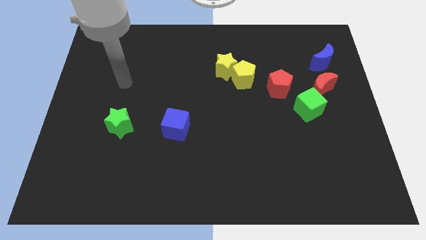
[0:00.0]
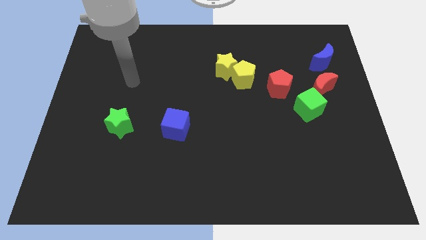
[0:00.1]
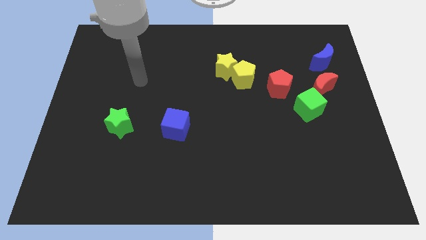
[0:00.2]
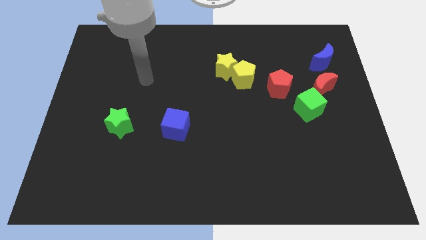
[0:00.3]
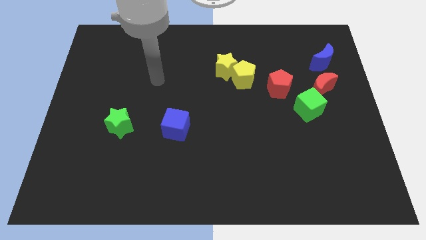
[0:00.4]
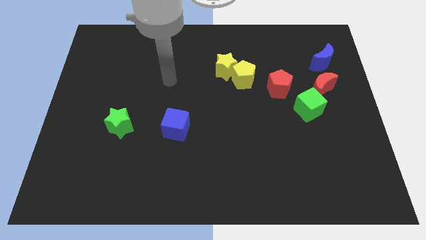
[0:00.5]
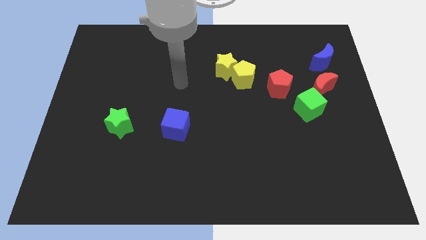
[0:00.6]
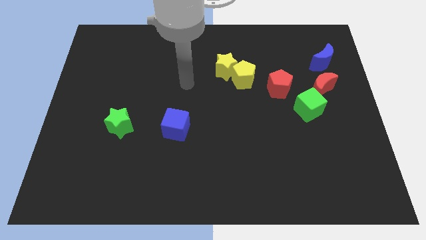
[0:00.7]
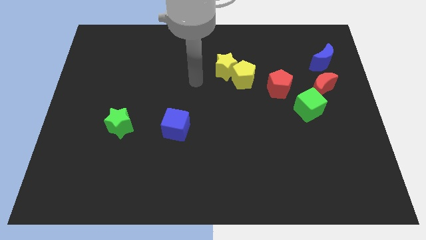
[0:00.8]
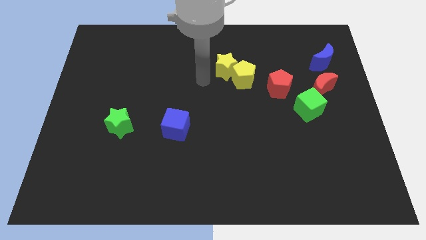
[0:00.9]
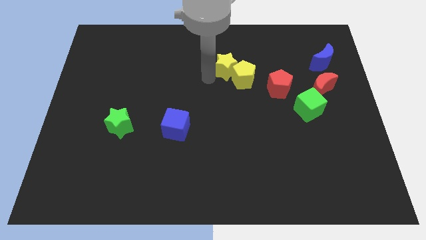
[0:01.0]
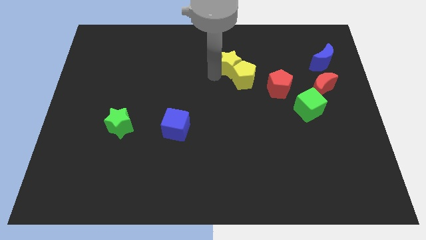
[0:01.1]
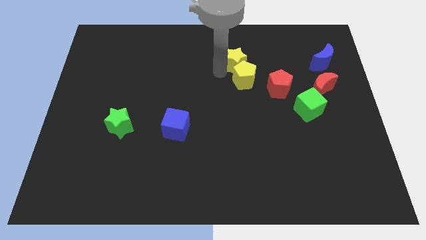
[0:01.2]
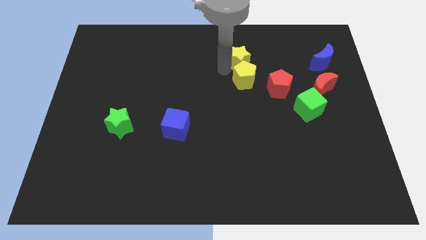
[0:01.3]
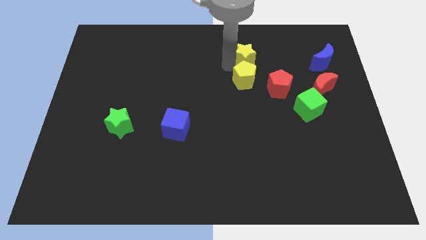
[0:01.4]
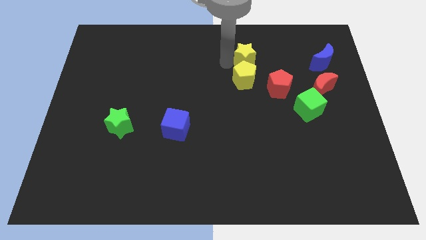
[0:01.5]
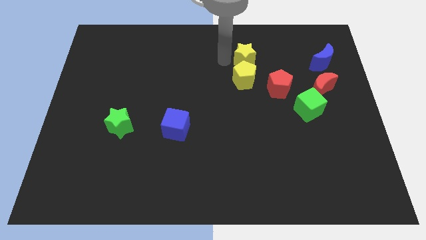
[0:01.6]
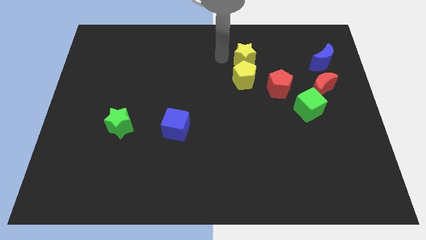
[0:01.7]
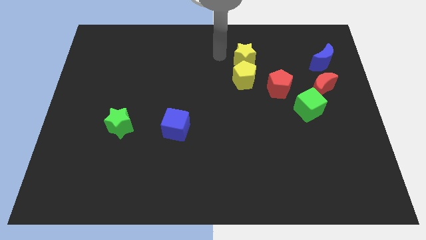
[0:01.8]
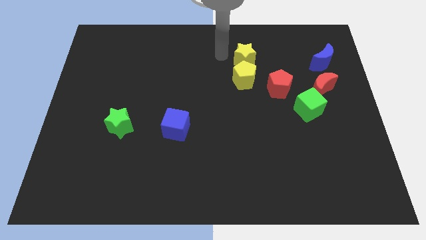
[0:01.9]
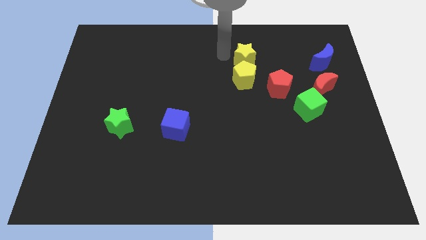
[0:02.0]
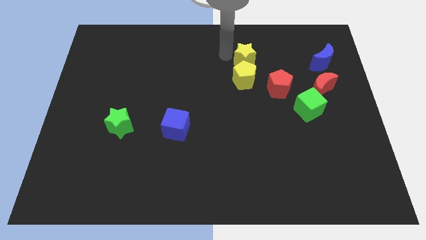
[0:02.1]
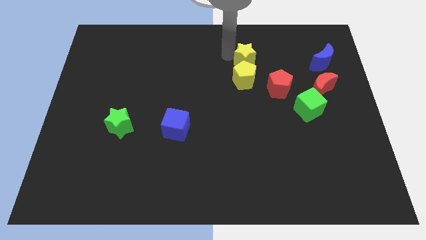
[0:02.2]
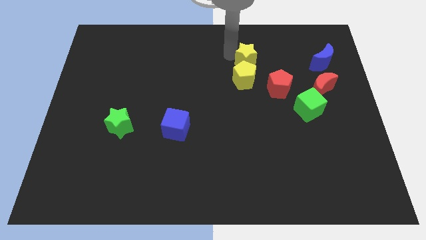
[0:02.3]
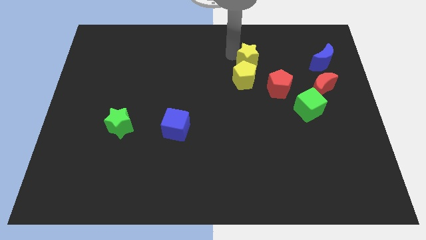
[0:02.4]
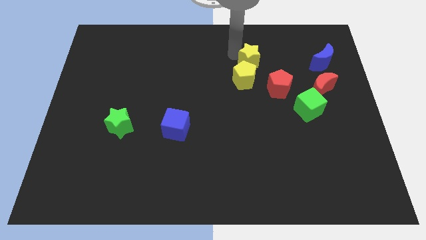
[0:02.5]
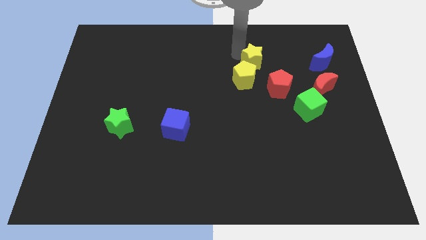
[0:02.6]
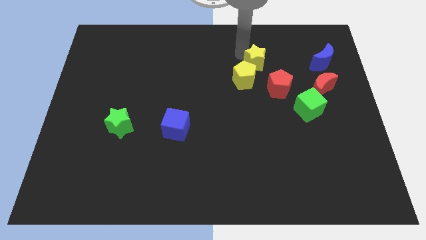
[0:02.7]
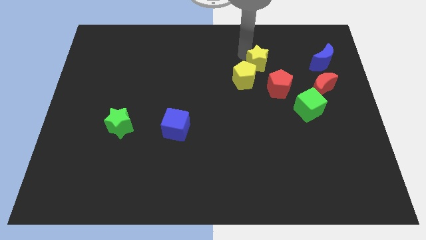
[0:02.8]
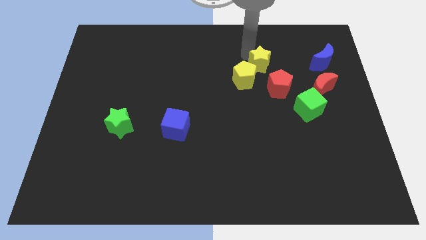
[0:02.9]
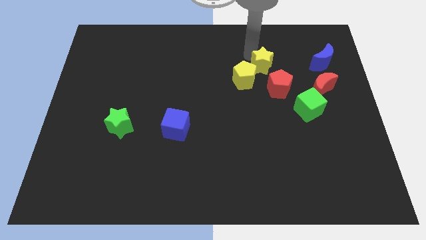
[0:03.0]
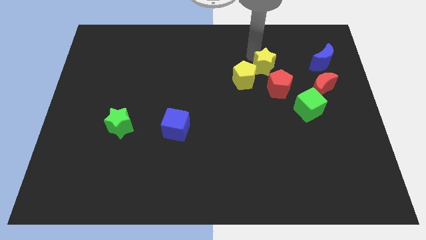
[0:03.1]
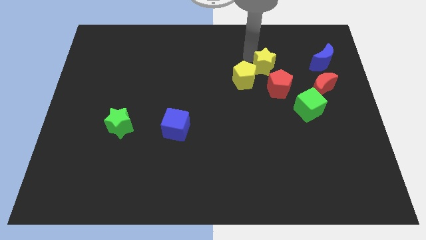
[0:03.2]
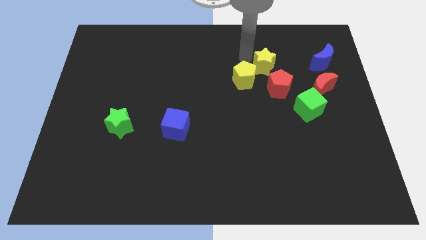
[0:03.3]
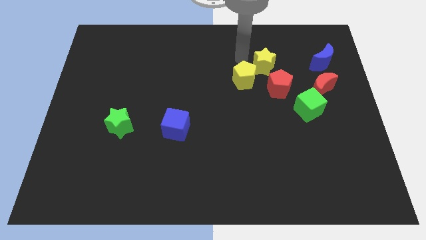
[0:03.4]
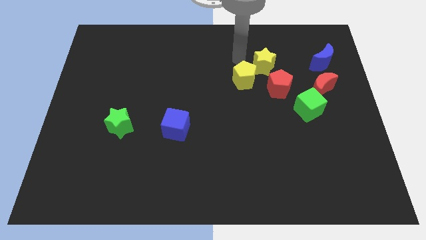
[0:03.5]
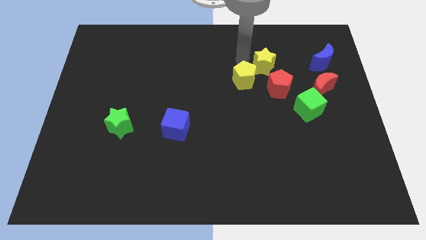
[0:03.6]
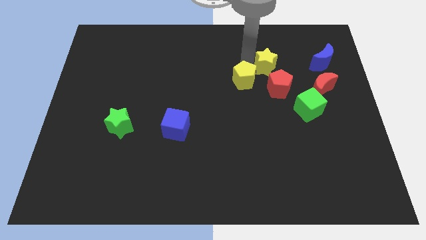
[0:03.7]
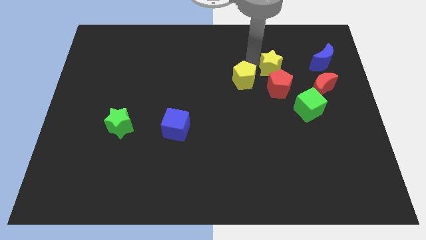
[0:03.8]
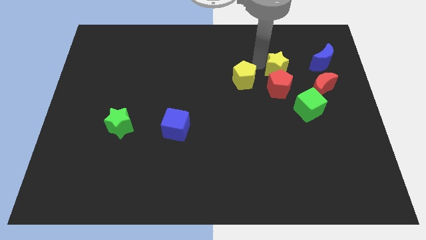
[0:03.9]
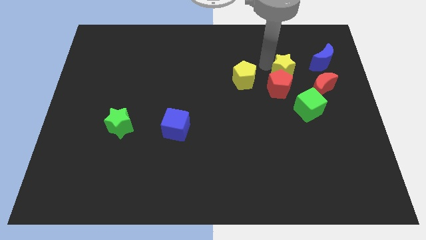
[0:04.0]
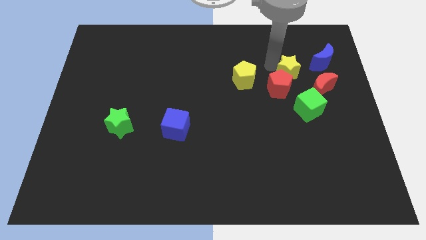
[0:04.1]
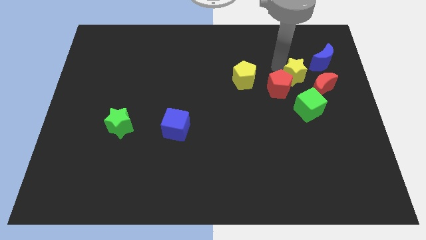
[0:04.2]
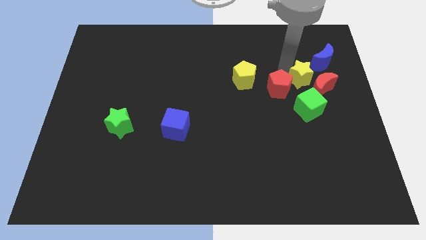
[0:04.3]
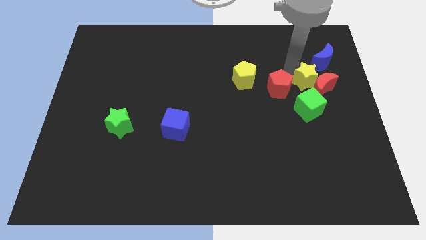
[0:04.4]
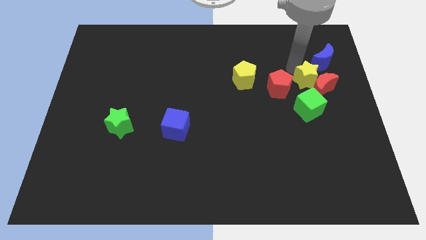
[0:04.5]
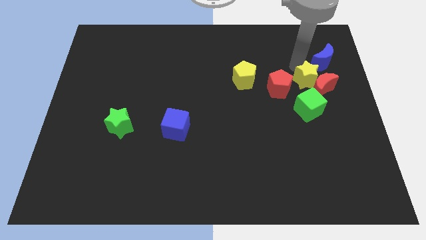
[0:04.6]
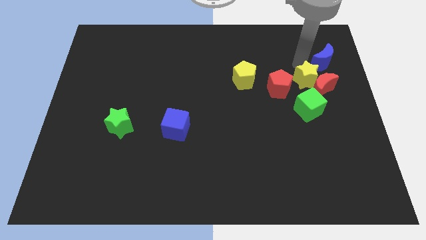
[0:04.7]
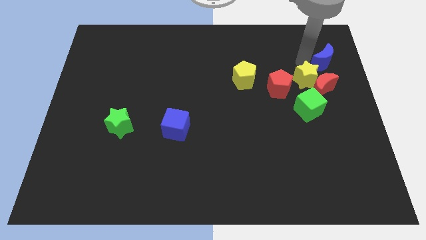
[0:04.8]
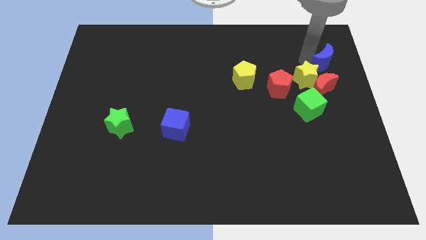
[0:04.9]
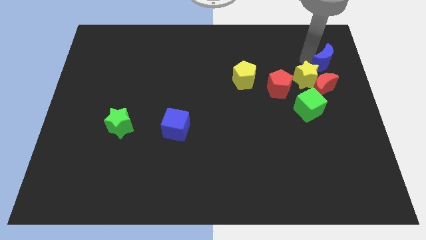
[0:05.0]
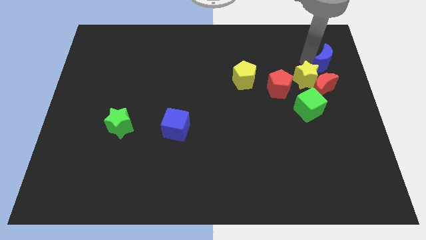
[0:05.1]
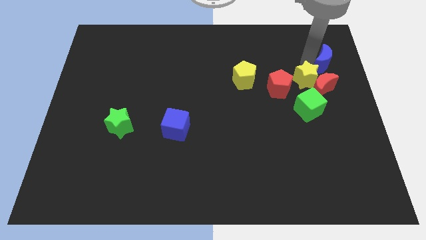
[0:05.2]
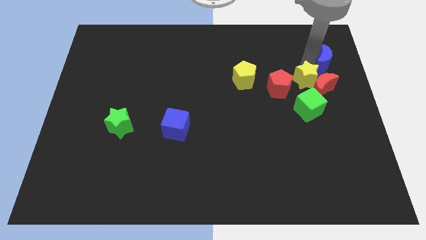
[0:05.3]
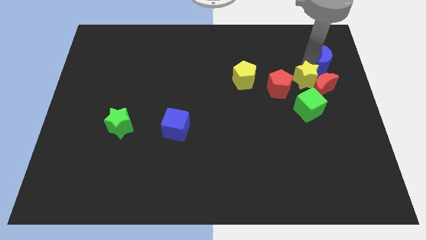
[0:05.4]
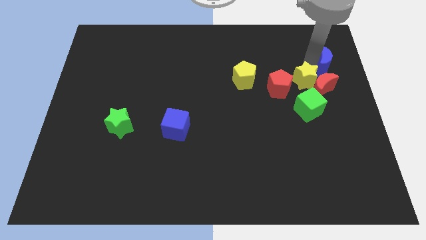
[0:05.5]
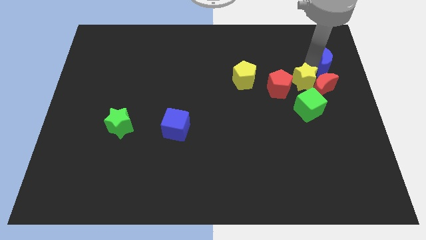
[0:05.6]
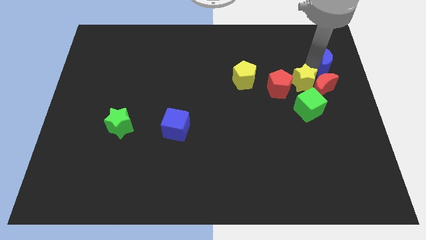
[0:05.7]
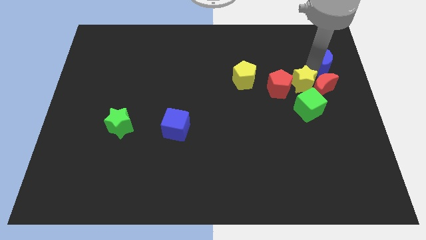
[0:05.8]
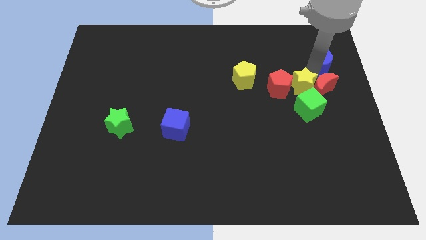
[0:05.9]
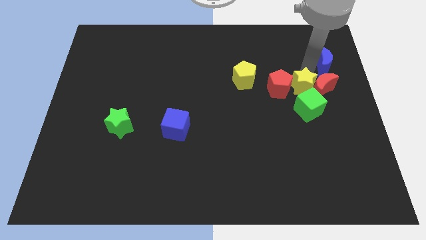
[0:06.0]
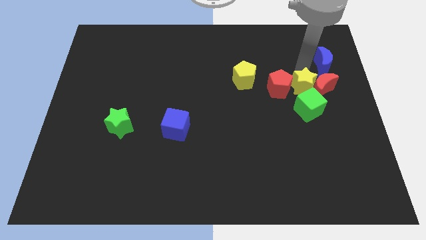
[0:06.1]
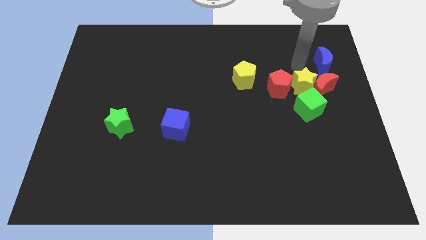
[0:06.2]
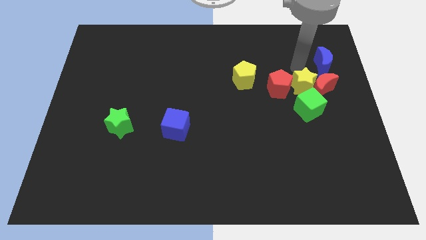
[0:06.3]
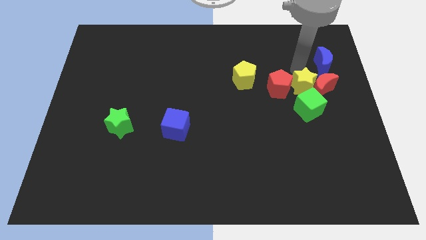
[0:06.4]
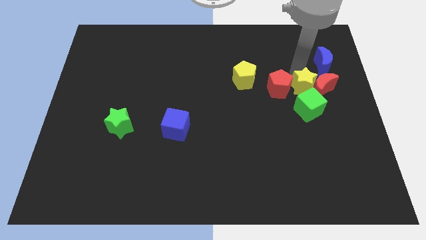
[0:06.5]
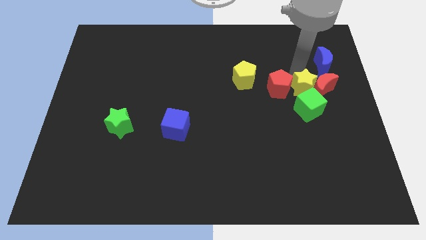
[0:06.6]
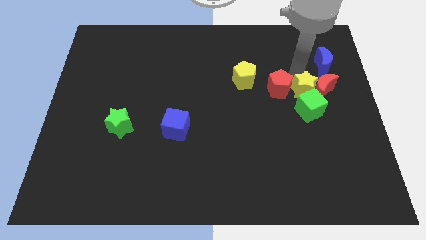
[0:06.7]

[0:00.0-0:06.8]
slide the yellow star next to the green cube
